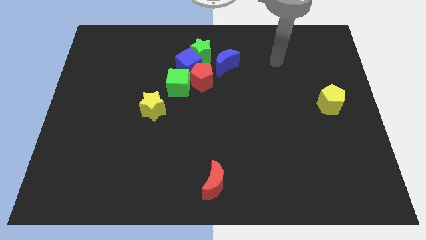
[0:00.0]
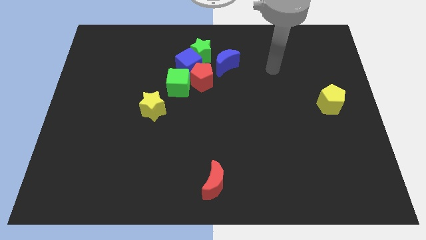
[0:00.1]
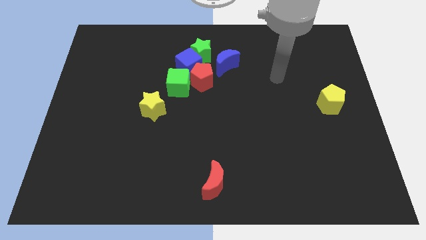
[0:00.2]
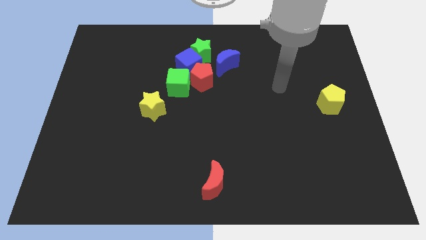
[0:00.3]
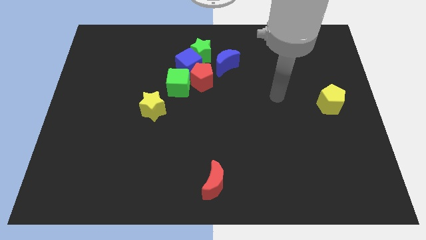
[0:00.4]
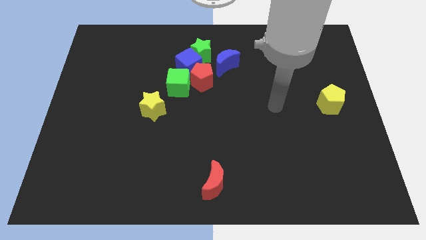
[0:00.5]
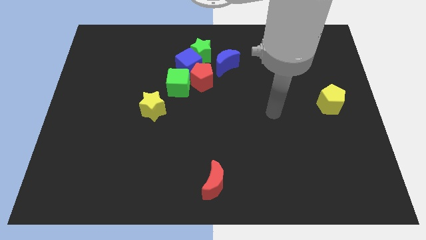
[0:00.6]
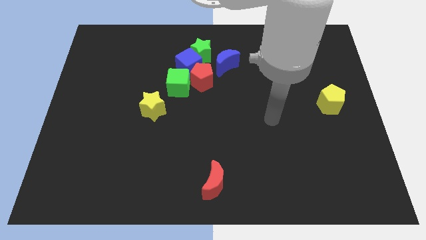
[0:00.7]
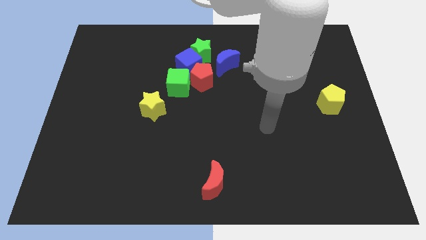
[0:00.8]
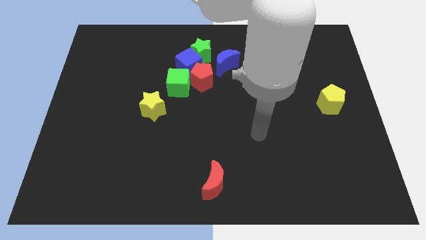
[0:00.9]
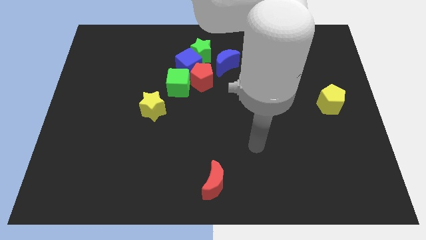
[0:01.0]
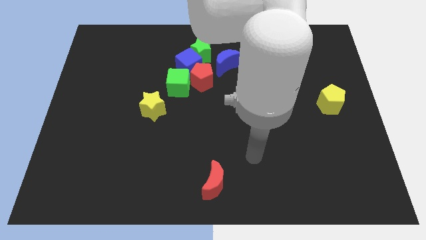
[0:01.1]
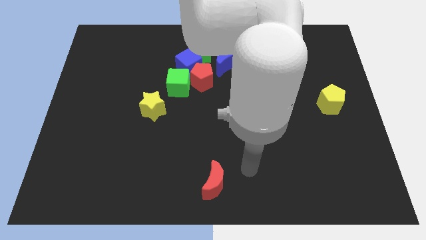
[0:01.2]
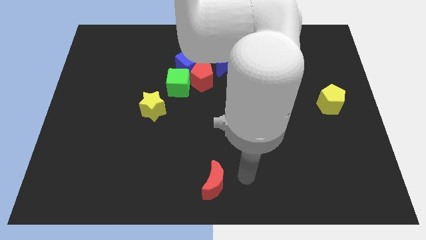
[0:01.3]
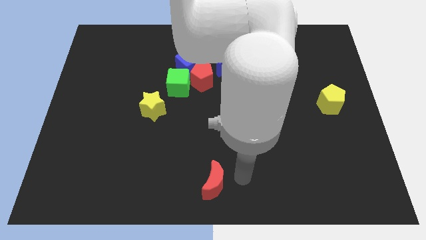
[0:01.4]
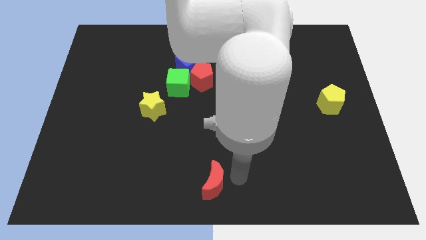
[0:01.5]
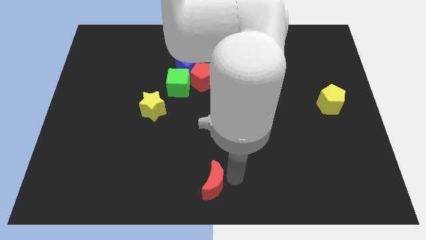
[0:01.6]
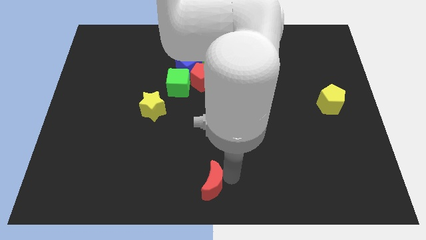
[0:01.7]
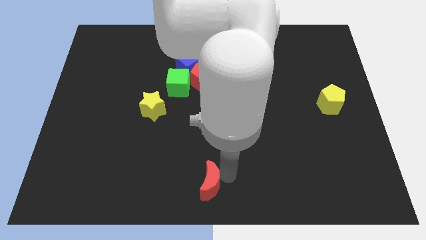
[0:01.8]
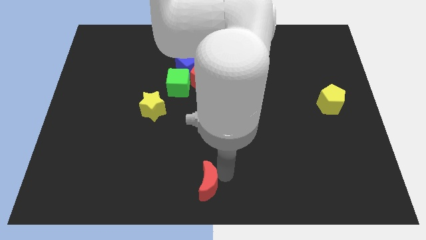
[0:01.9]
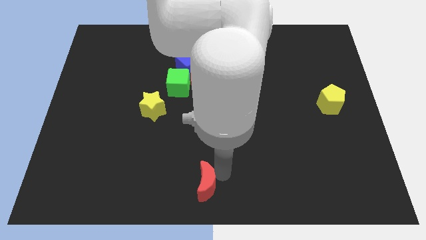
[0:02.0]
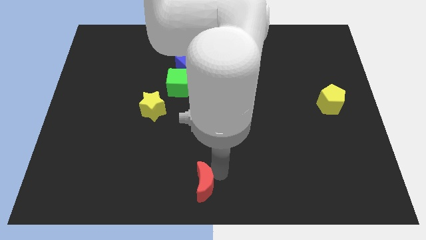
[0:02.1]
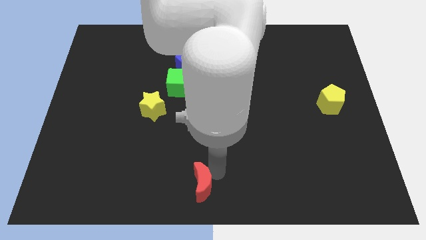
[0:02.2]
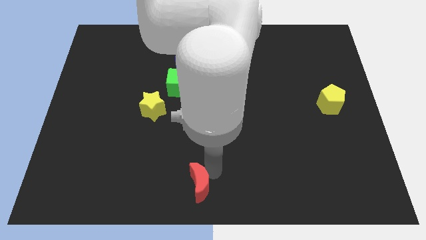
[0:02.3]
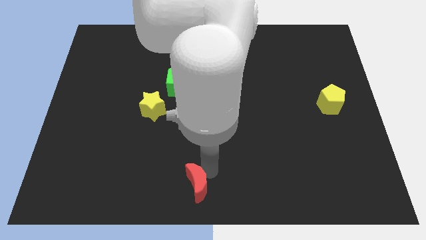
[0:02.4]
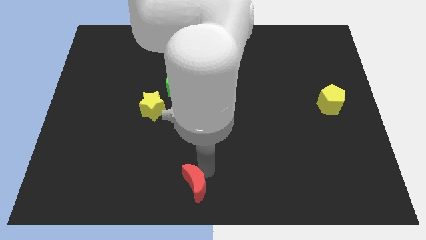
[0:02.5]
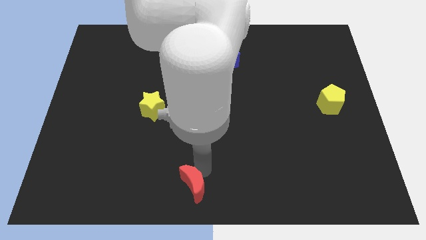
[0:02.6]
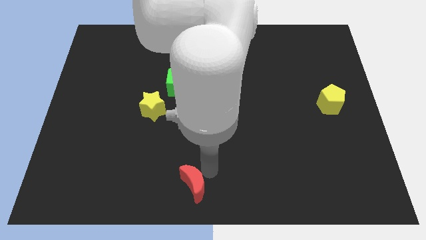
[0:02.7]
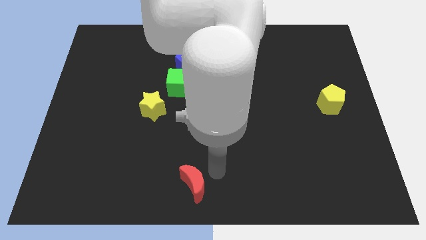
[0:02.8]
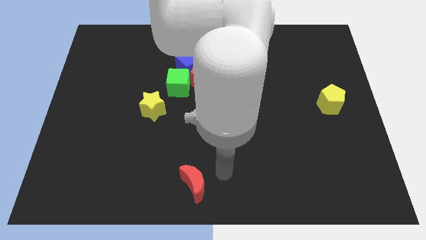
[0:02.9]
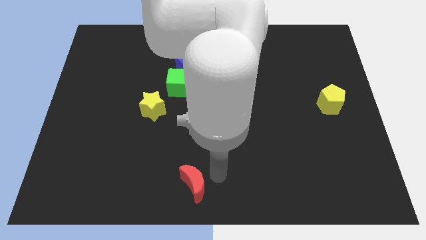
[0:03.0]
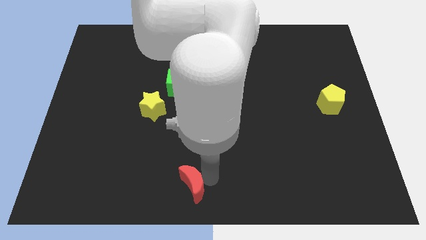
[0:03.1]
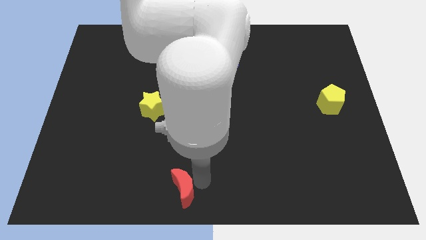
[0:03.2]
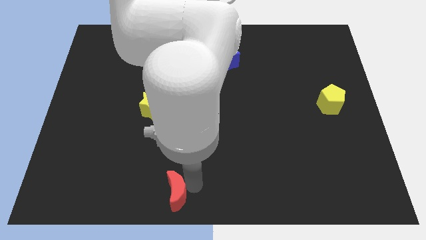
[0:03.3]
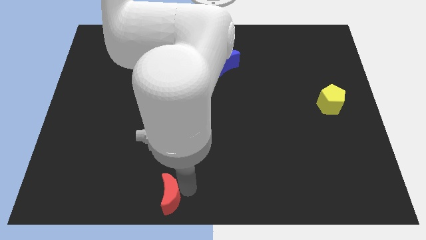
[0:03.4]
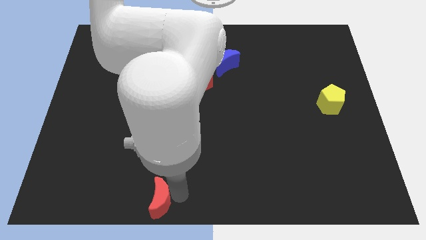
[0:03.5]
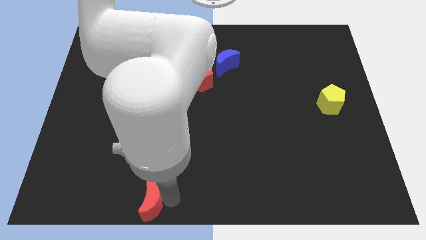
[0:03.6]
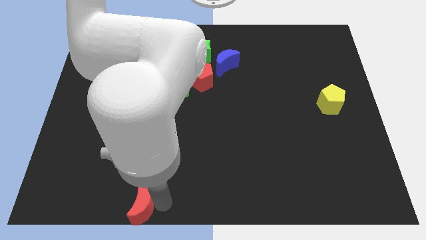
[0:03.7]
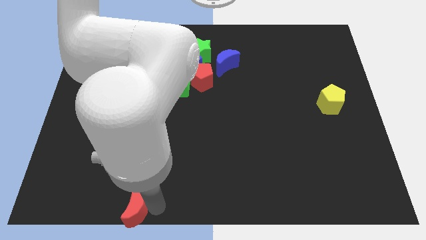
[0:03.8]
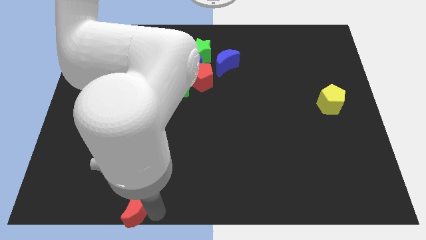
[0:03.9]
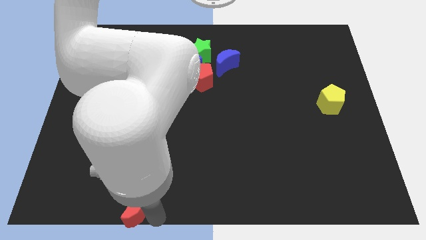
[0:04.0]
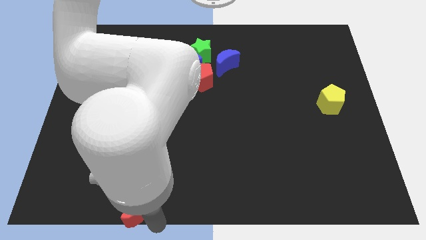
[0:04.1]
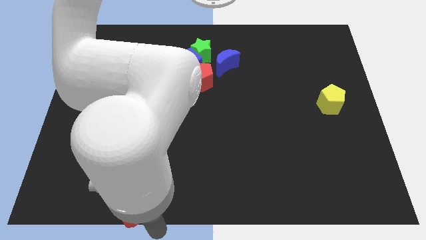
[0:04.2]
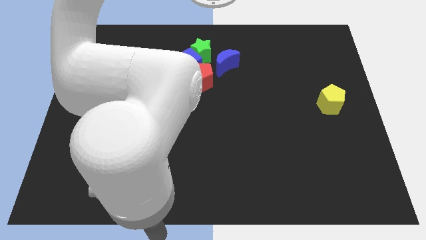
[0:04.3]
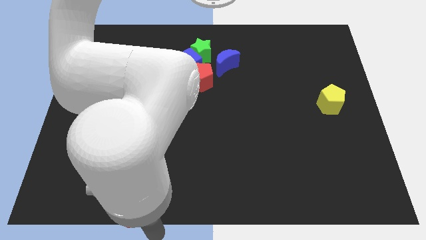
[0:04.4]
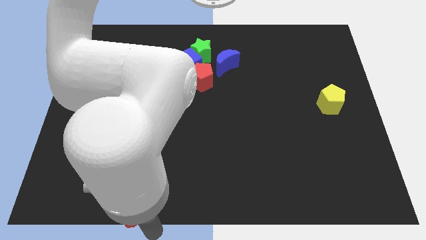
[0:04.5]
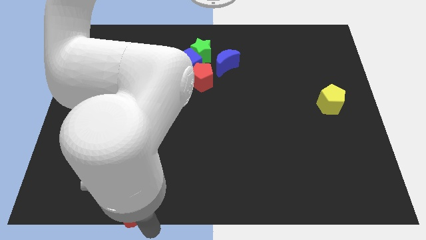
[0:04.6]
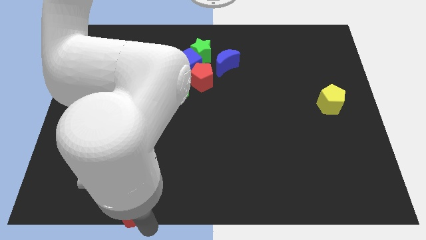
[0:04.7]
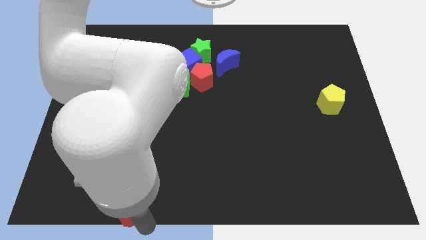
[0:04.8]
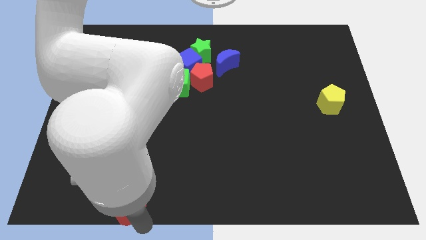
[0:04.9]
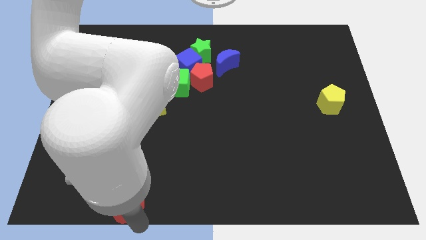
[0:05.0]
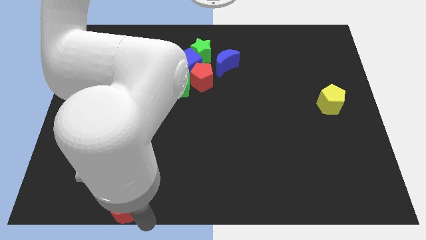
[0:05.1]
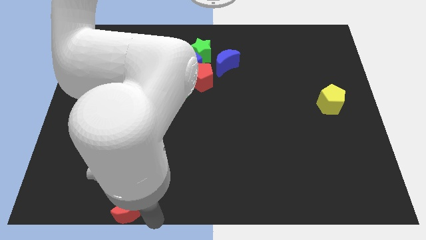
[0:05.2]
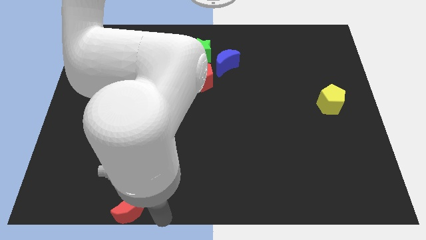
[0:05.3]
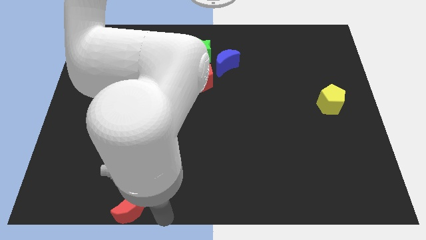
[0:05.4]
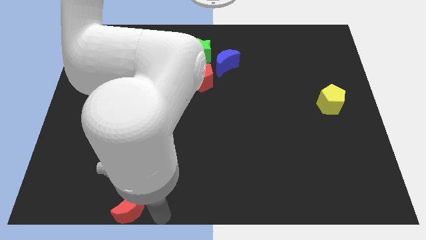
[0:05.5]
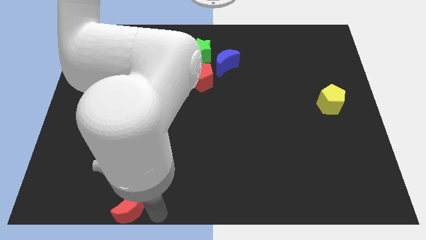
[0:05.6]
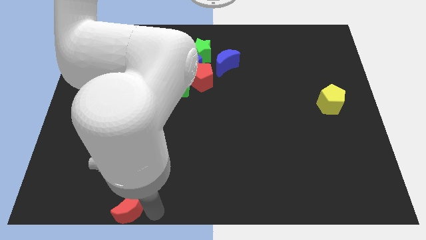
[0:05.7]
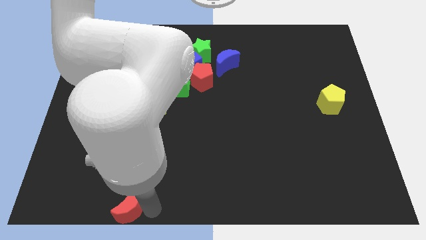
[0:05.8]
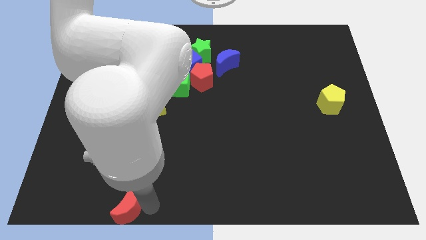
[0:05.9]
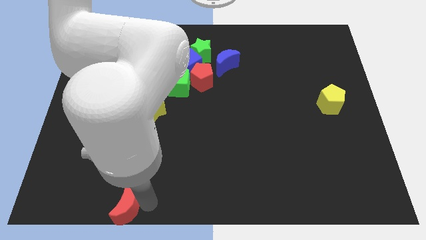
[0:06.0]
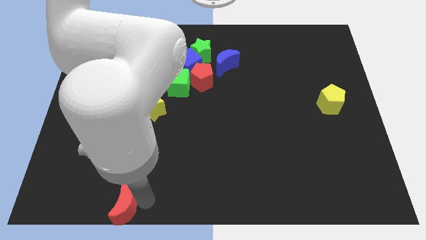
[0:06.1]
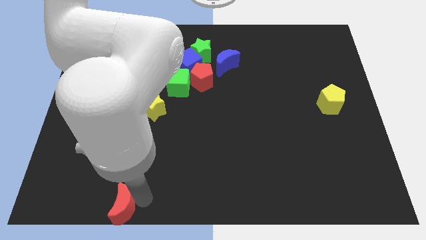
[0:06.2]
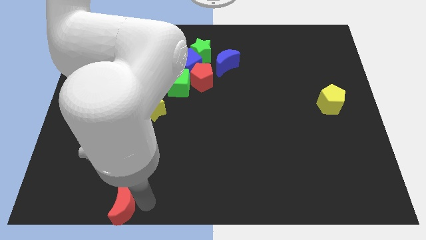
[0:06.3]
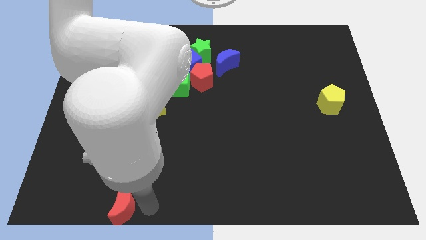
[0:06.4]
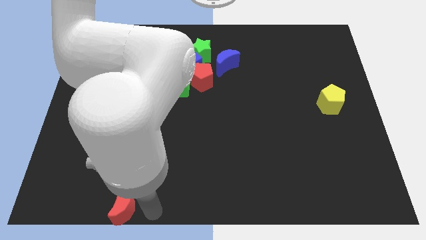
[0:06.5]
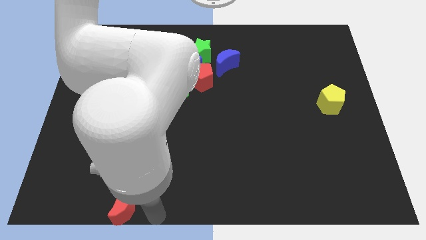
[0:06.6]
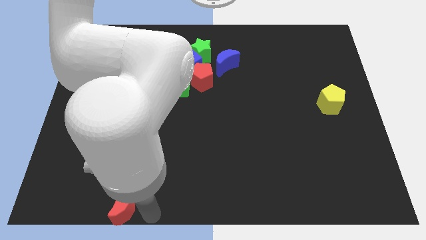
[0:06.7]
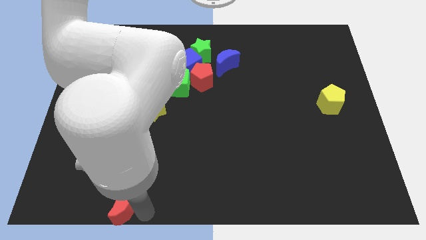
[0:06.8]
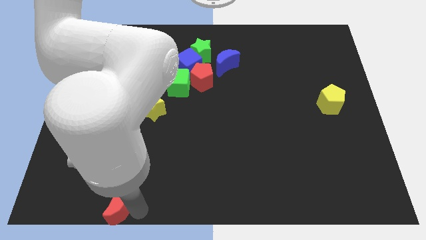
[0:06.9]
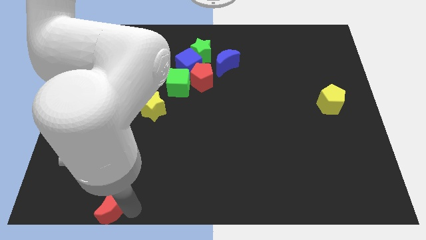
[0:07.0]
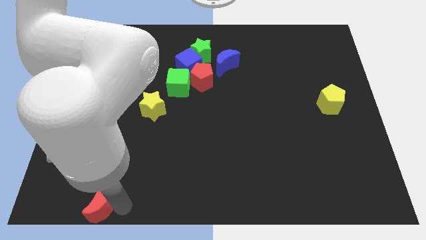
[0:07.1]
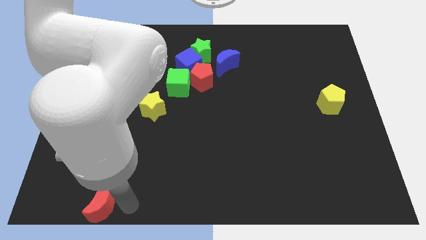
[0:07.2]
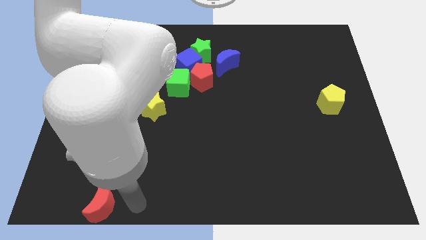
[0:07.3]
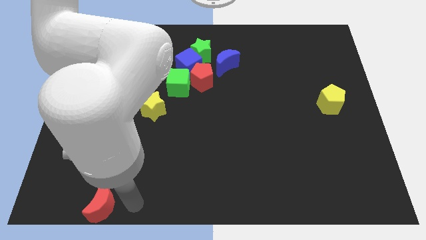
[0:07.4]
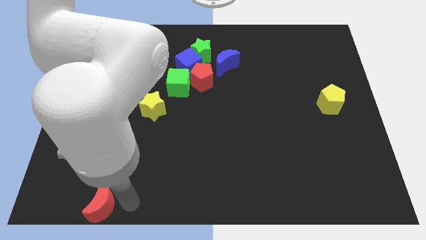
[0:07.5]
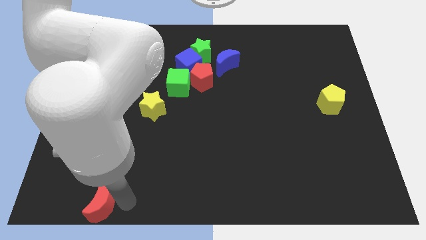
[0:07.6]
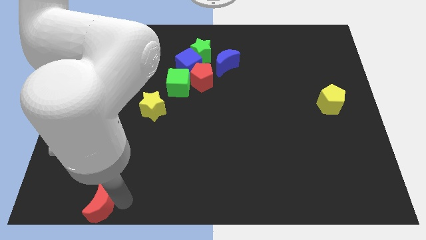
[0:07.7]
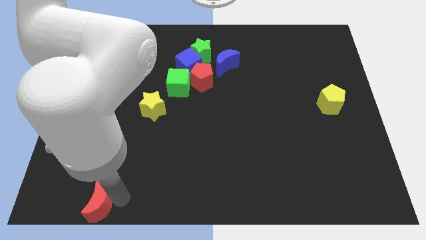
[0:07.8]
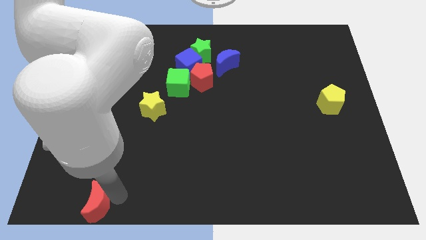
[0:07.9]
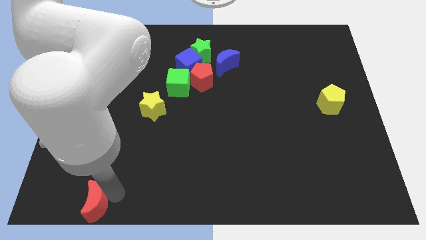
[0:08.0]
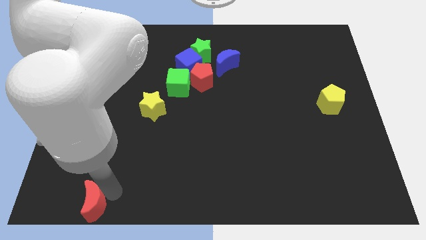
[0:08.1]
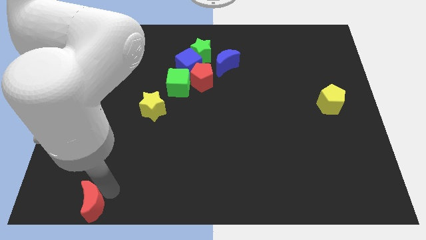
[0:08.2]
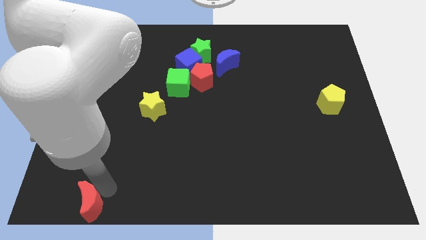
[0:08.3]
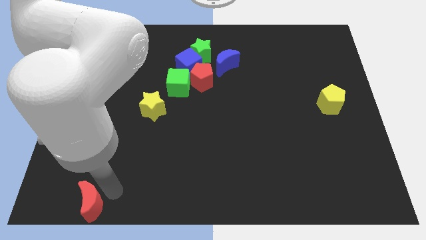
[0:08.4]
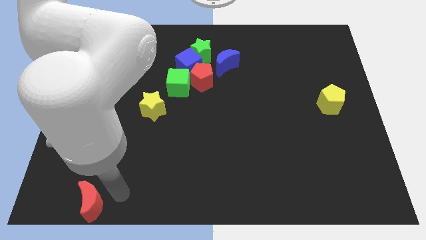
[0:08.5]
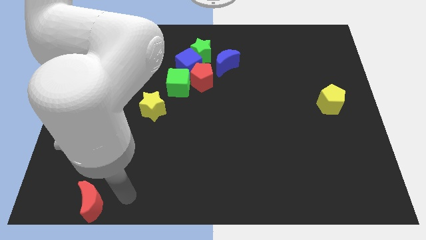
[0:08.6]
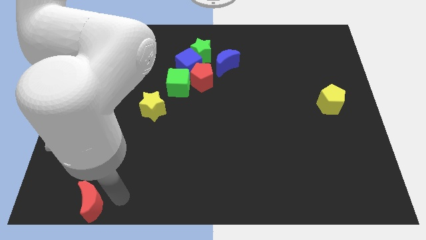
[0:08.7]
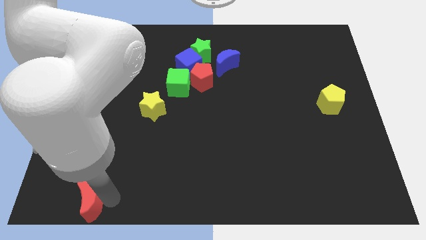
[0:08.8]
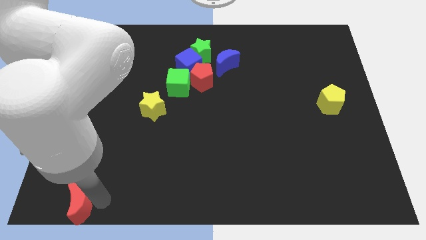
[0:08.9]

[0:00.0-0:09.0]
push the red moon to the bottom left
